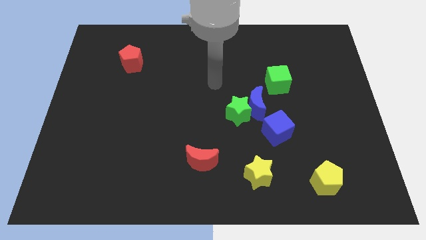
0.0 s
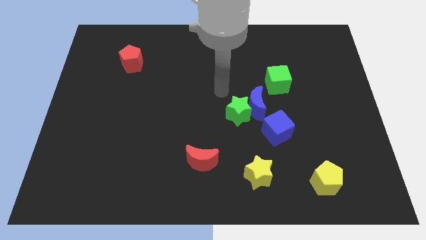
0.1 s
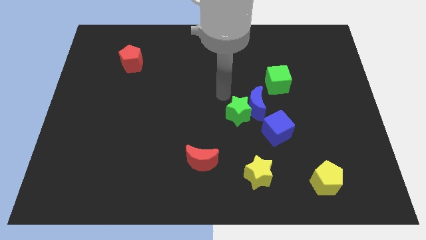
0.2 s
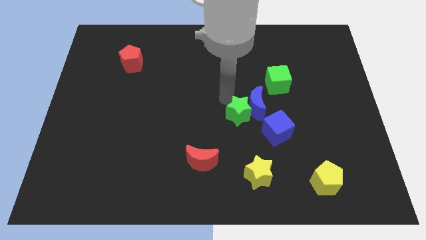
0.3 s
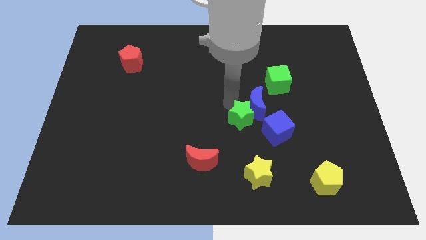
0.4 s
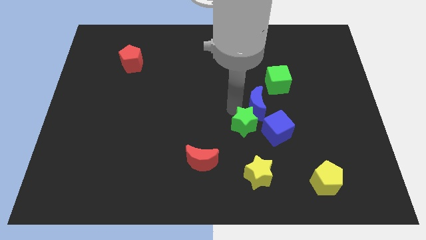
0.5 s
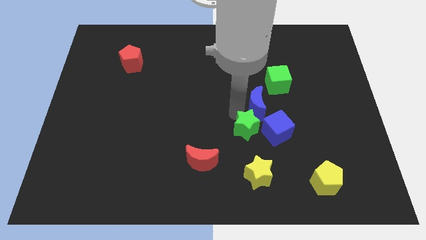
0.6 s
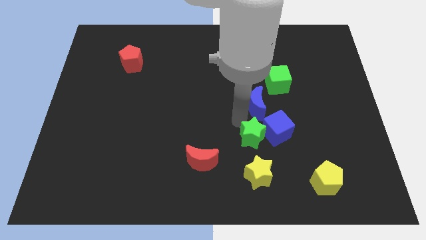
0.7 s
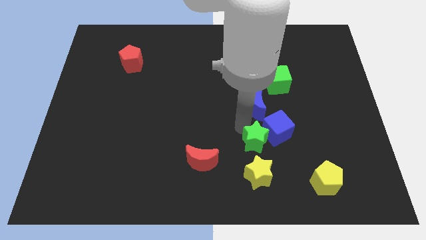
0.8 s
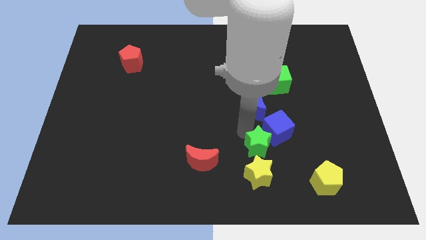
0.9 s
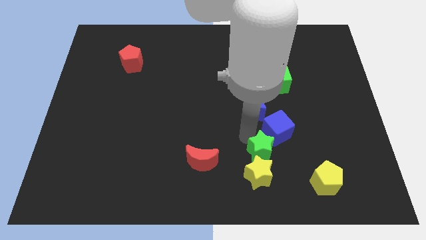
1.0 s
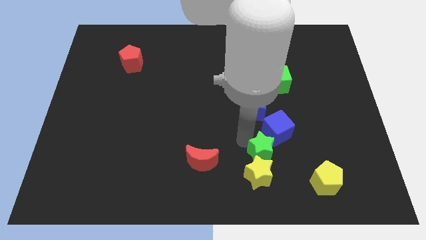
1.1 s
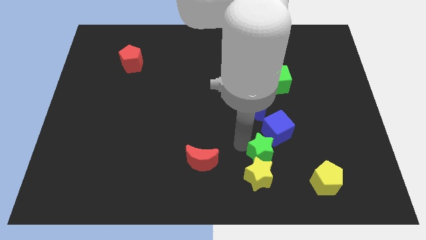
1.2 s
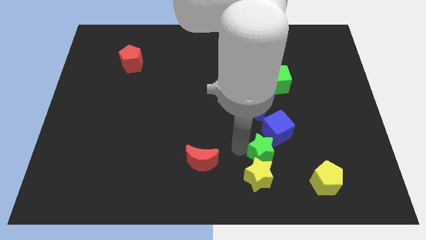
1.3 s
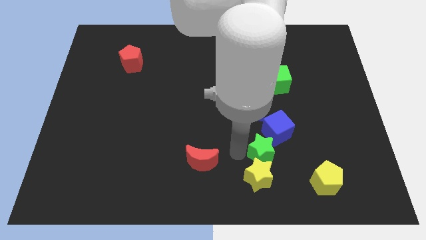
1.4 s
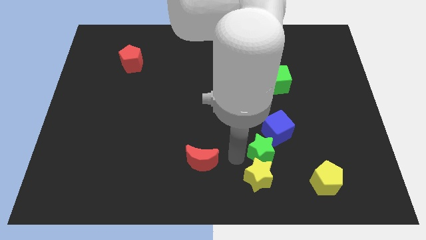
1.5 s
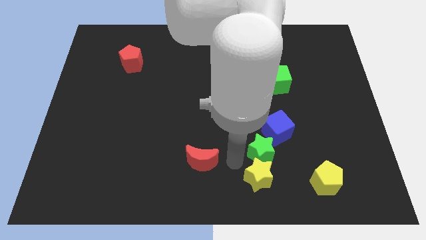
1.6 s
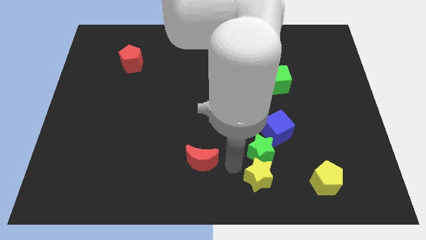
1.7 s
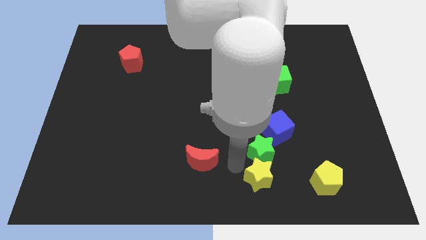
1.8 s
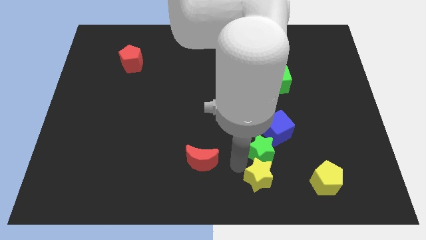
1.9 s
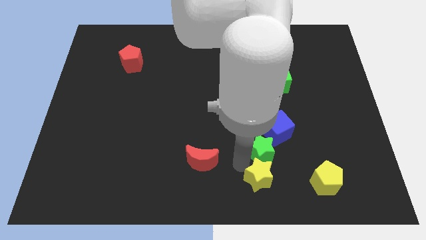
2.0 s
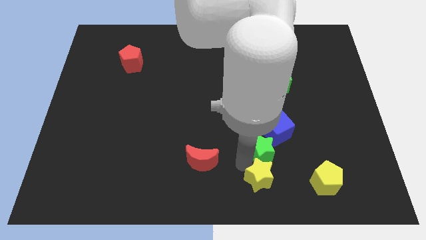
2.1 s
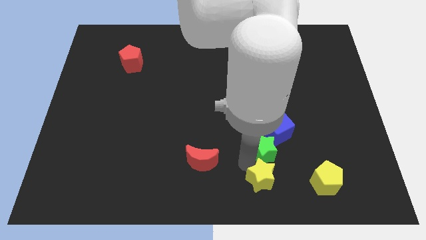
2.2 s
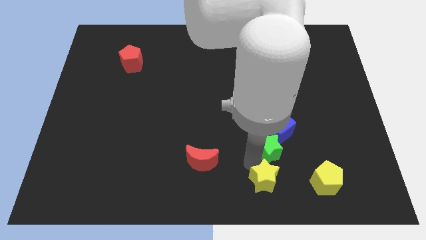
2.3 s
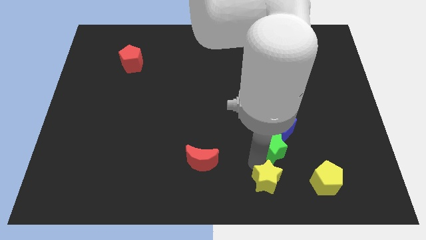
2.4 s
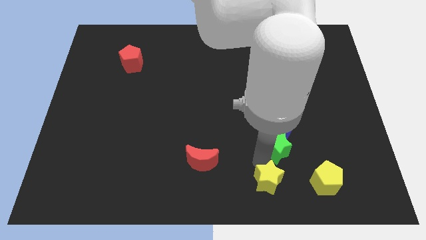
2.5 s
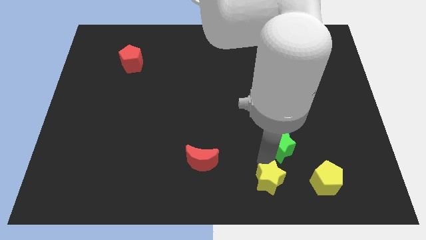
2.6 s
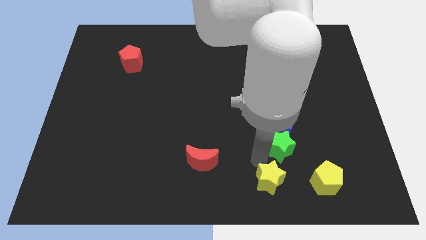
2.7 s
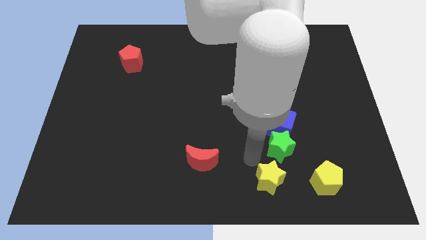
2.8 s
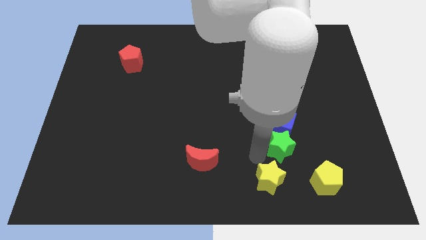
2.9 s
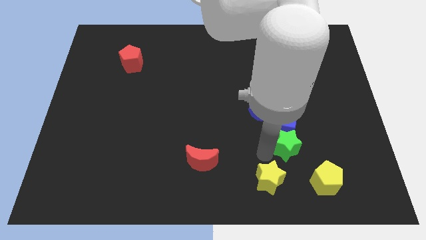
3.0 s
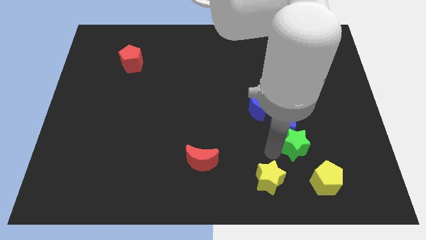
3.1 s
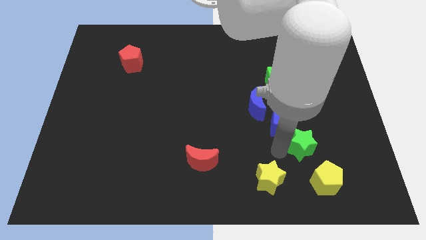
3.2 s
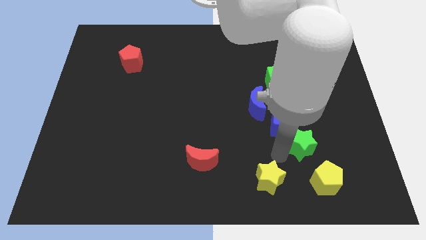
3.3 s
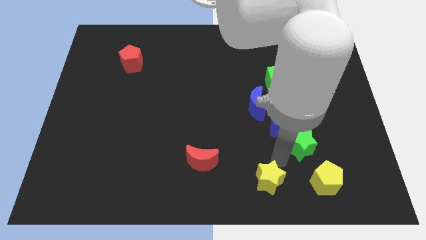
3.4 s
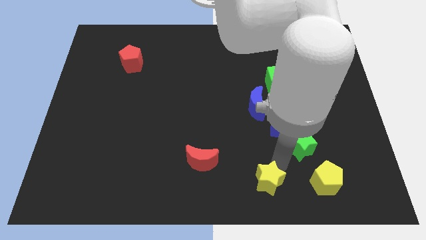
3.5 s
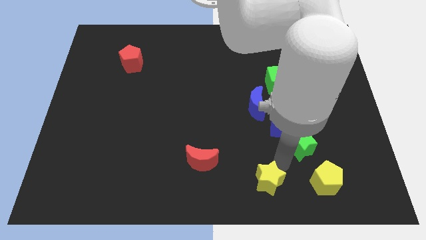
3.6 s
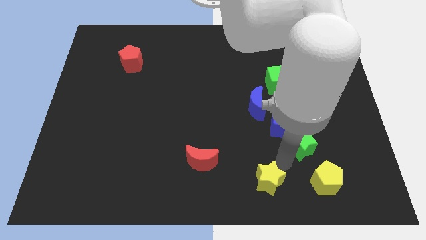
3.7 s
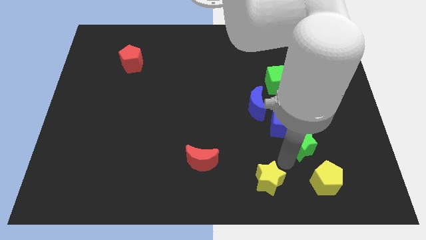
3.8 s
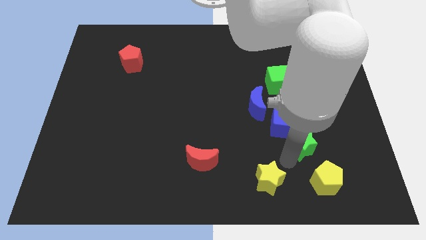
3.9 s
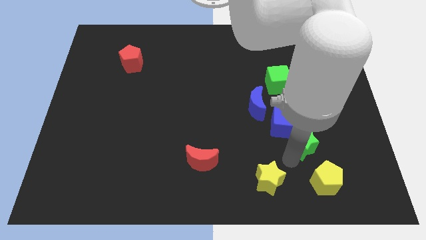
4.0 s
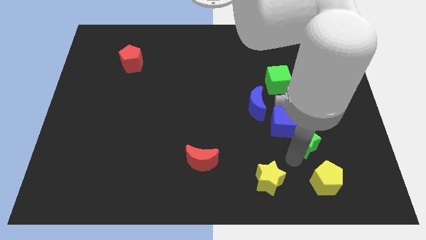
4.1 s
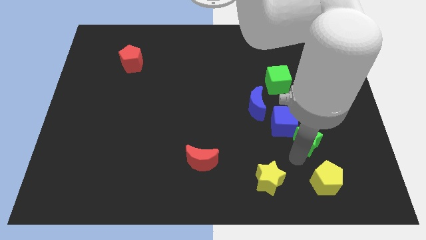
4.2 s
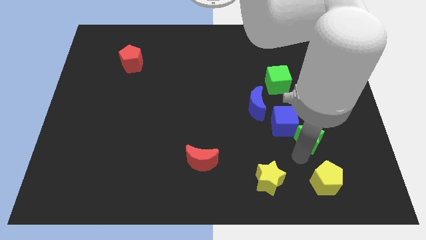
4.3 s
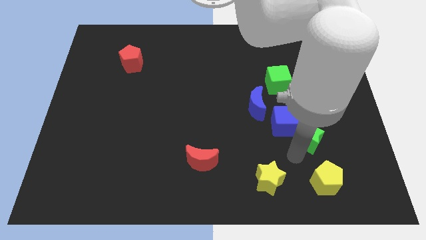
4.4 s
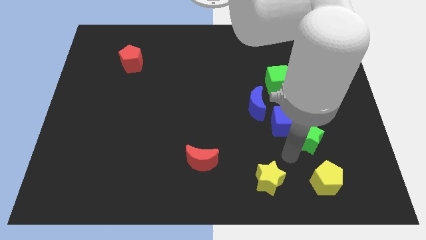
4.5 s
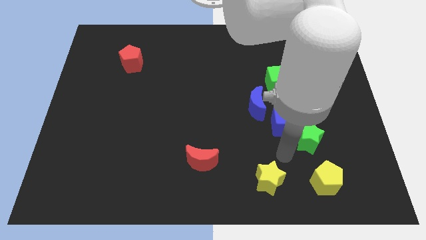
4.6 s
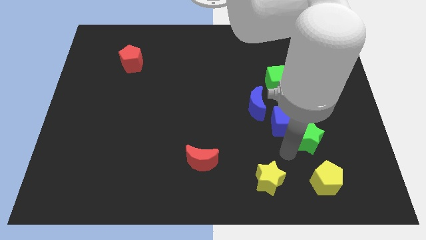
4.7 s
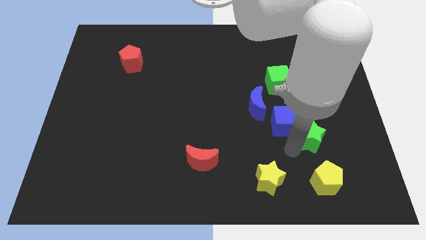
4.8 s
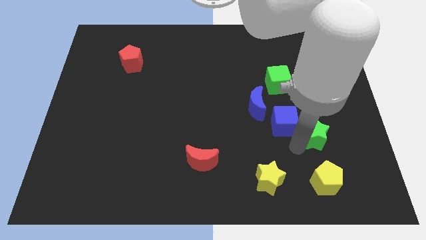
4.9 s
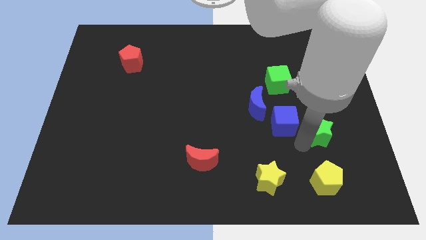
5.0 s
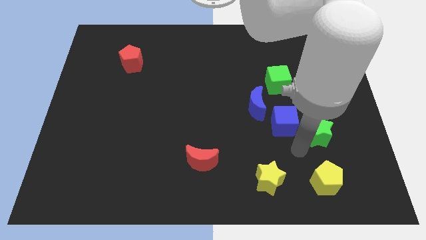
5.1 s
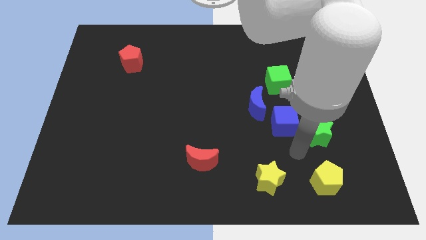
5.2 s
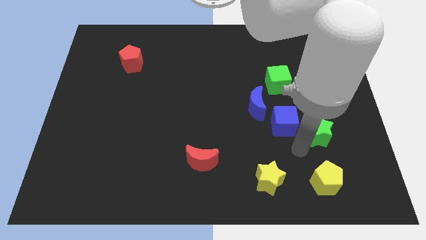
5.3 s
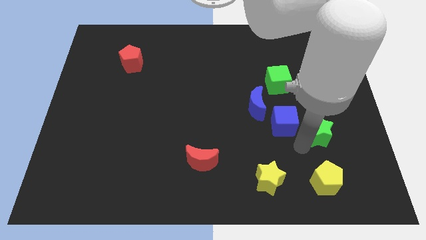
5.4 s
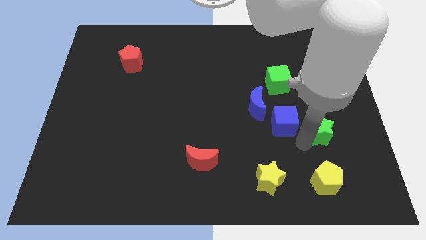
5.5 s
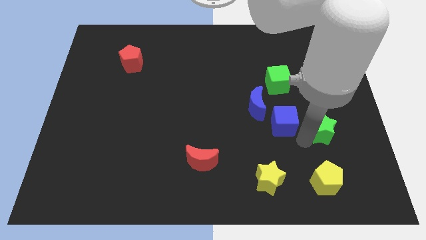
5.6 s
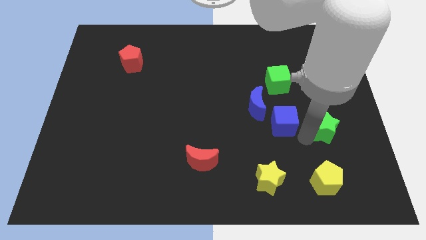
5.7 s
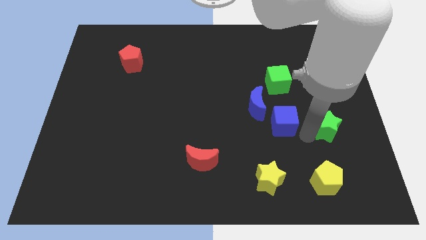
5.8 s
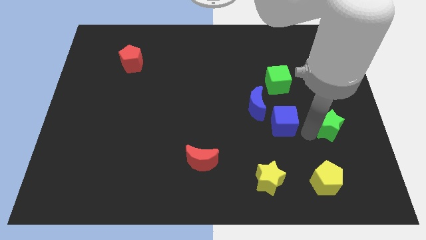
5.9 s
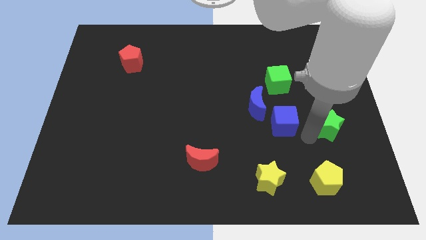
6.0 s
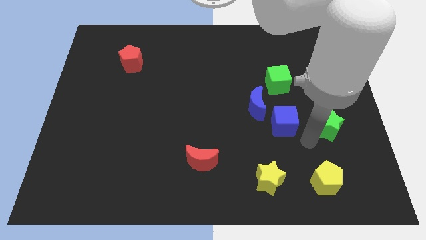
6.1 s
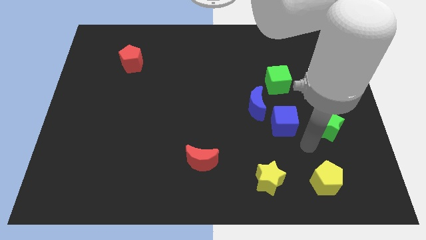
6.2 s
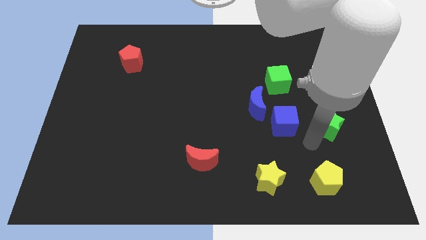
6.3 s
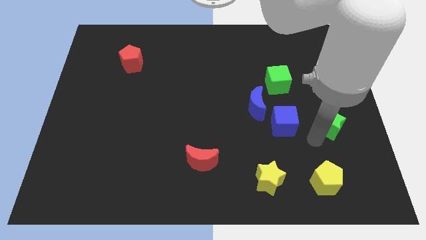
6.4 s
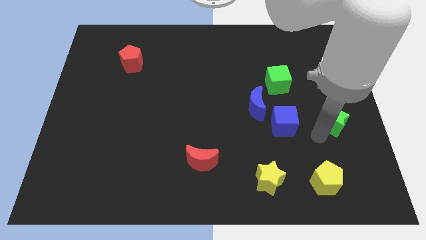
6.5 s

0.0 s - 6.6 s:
put the green star to the right side of the board
